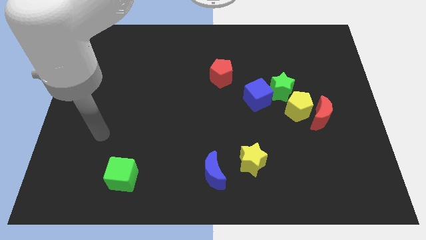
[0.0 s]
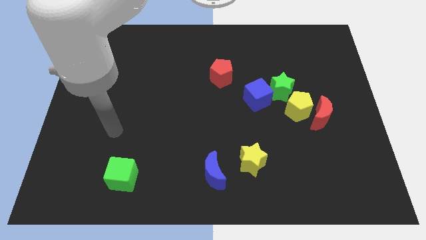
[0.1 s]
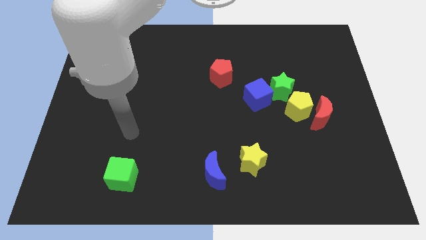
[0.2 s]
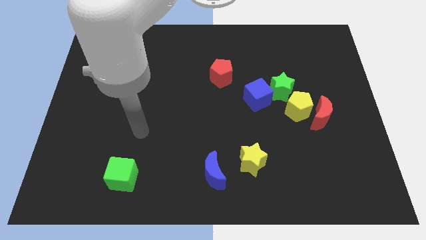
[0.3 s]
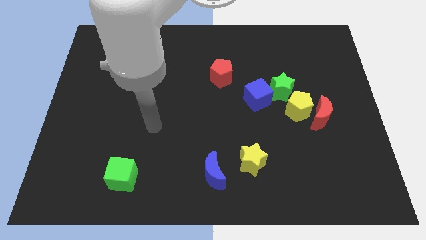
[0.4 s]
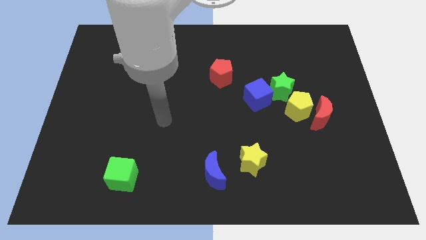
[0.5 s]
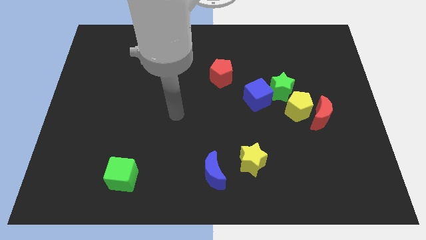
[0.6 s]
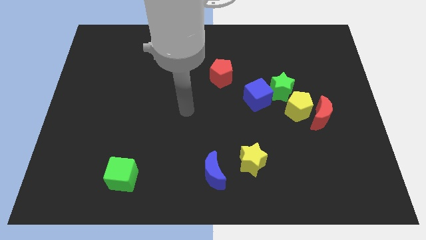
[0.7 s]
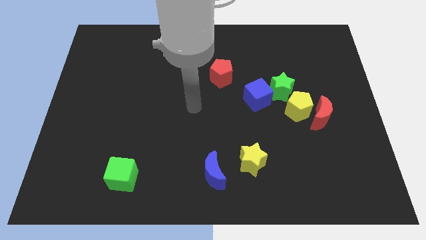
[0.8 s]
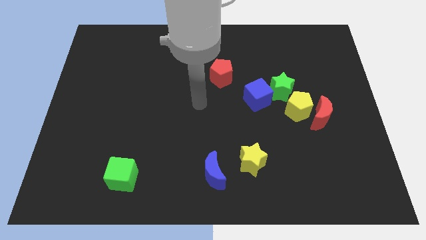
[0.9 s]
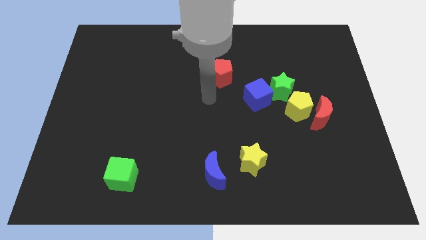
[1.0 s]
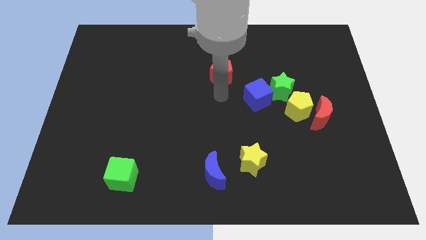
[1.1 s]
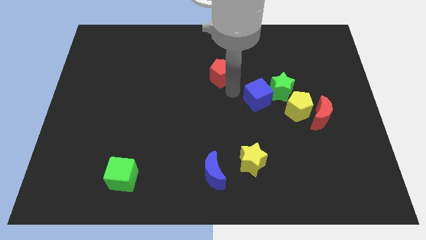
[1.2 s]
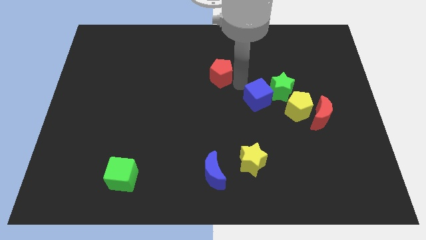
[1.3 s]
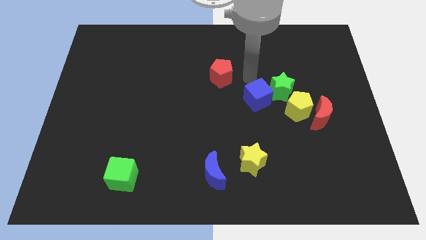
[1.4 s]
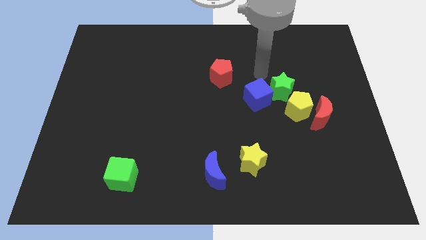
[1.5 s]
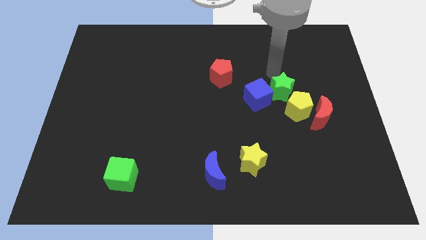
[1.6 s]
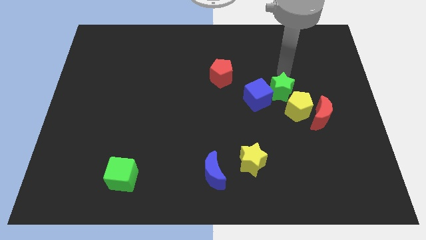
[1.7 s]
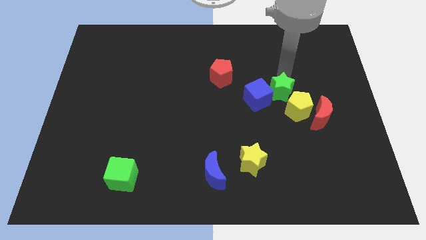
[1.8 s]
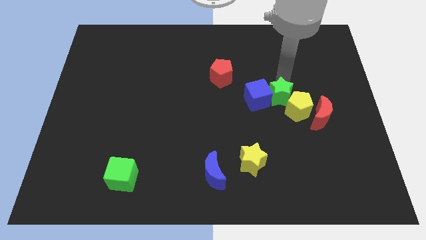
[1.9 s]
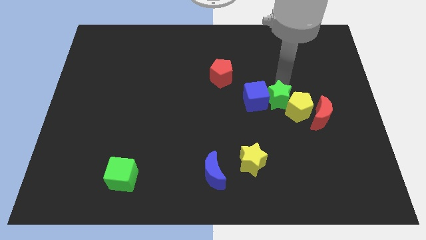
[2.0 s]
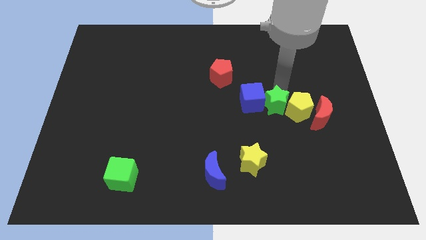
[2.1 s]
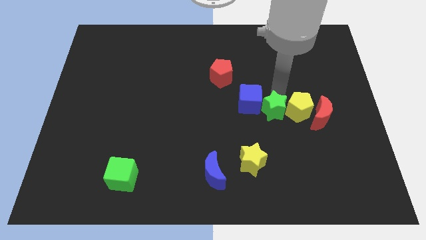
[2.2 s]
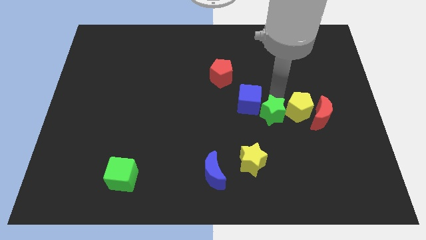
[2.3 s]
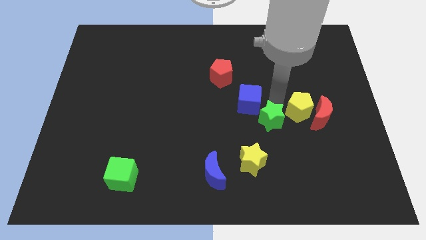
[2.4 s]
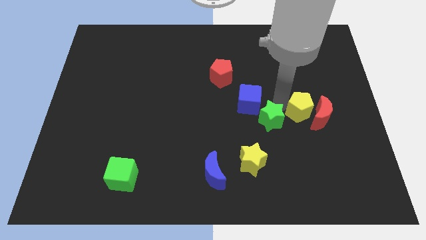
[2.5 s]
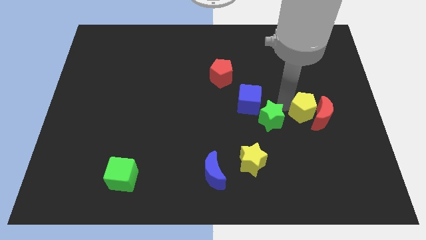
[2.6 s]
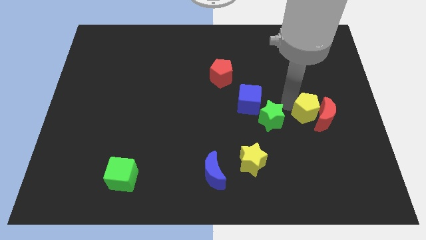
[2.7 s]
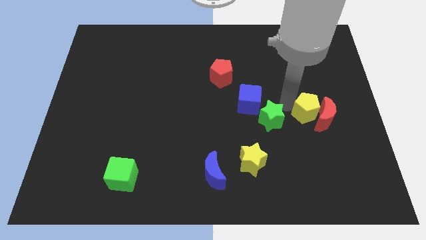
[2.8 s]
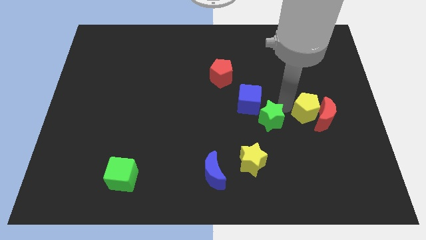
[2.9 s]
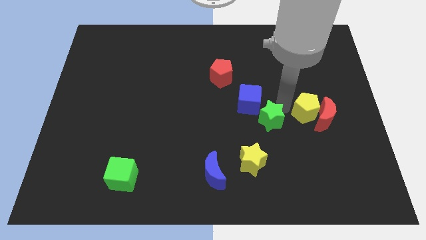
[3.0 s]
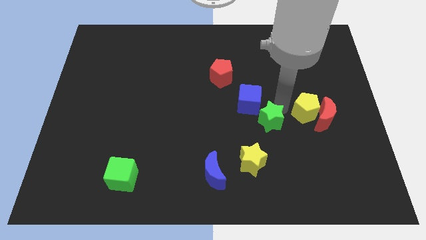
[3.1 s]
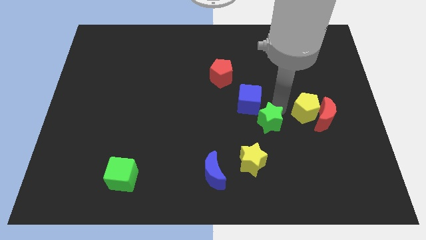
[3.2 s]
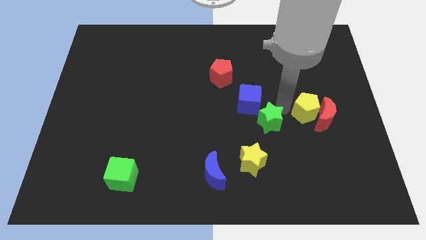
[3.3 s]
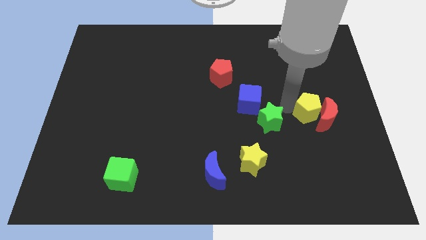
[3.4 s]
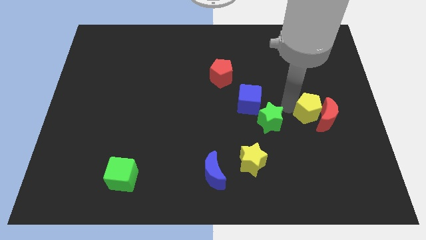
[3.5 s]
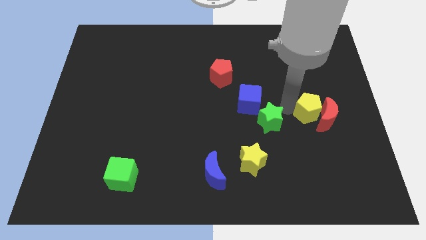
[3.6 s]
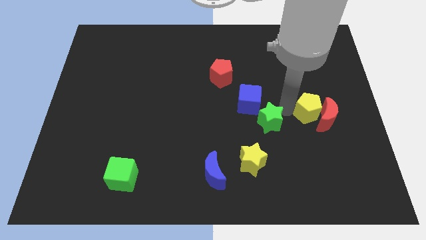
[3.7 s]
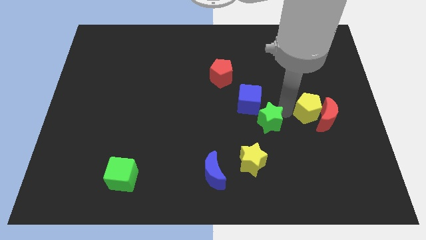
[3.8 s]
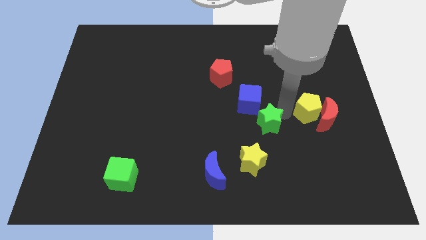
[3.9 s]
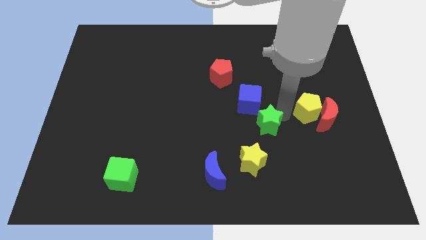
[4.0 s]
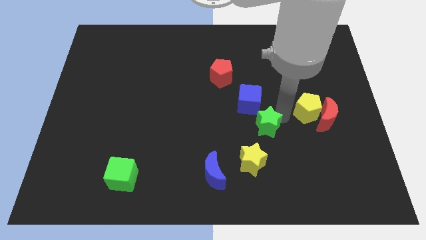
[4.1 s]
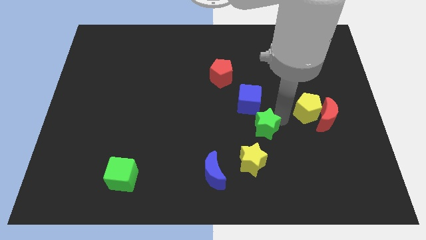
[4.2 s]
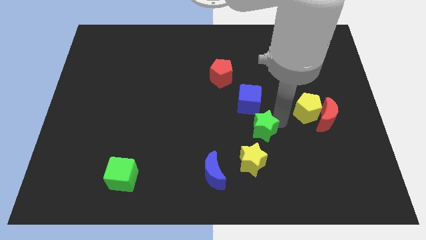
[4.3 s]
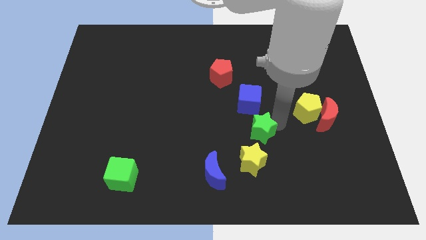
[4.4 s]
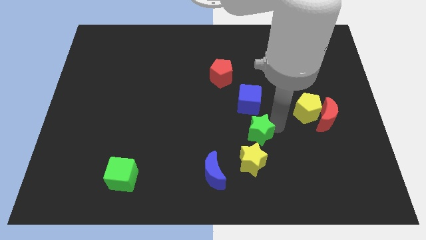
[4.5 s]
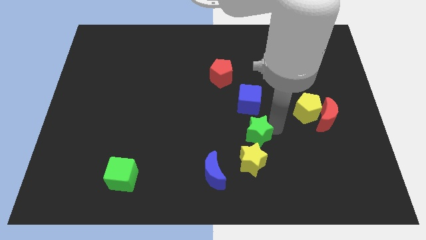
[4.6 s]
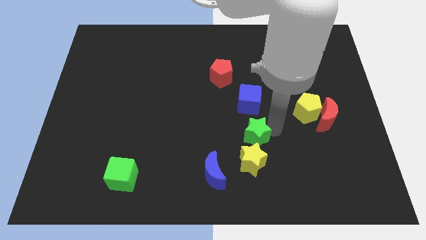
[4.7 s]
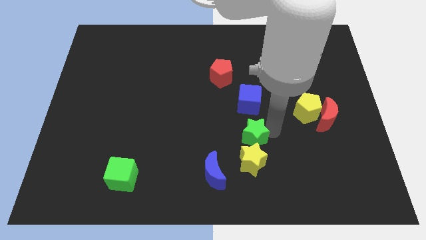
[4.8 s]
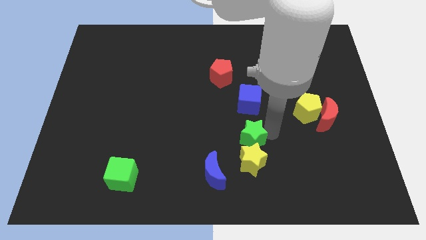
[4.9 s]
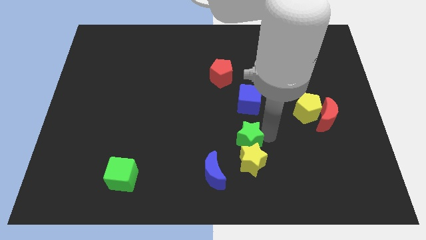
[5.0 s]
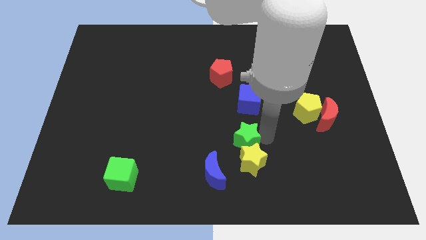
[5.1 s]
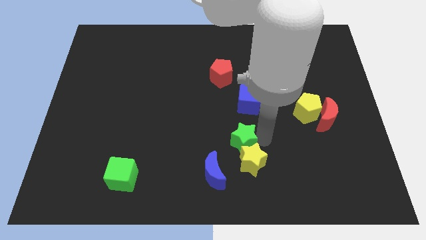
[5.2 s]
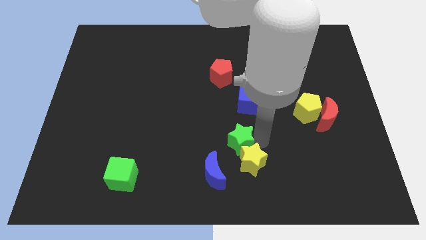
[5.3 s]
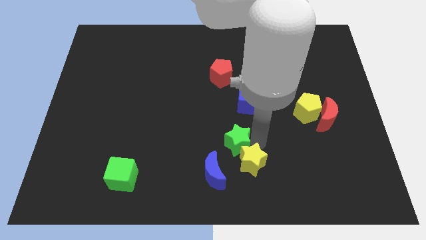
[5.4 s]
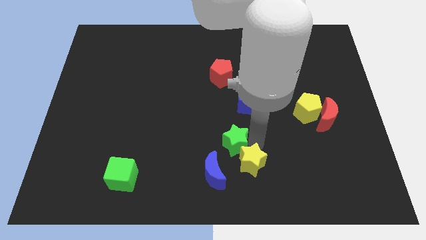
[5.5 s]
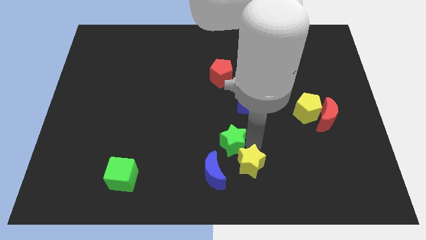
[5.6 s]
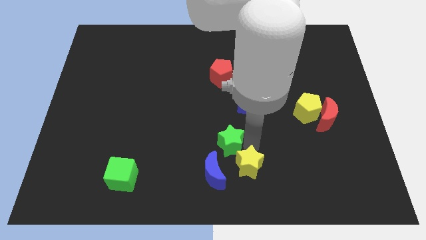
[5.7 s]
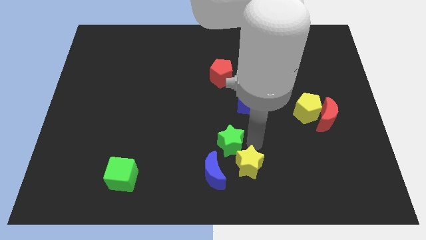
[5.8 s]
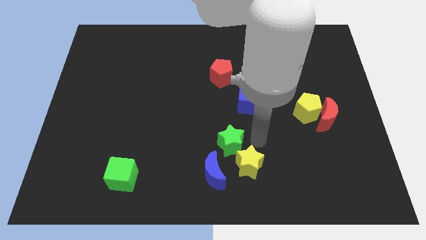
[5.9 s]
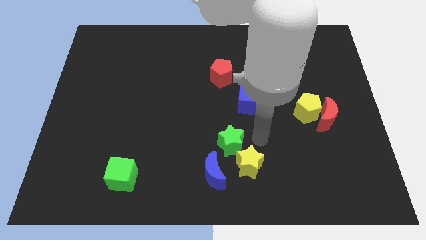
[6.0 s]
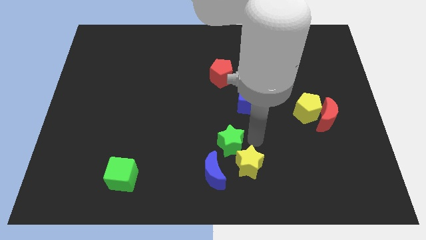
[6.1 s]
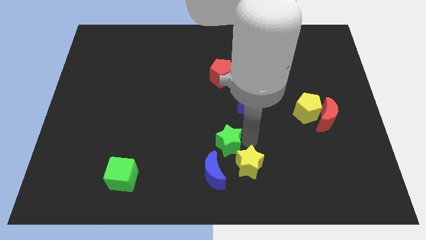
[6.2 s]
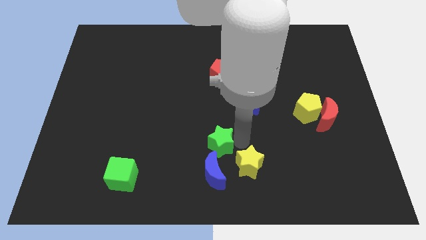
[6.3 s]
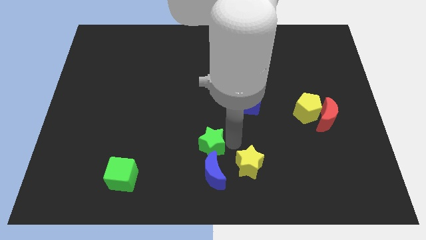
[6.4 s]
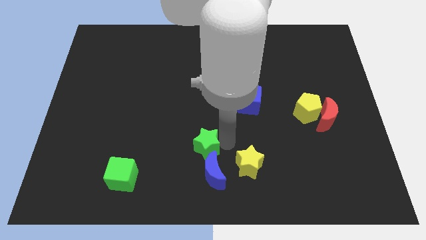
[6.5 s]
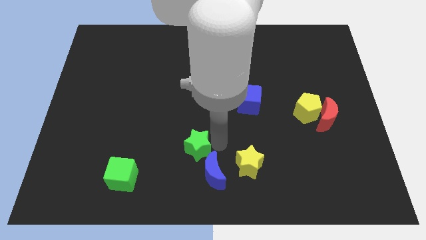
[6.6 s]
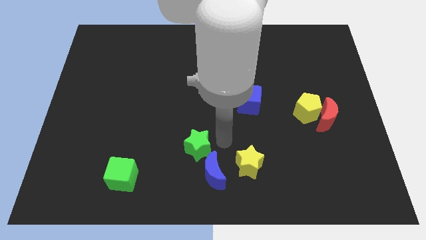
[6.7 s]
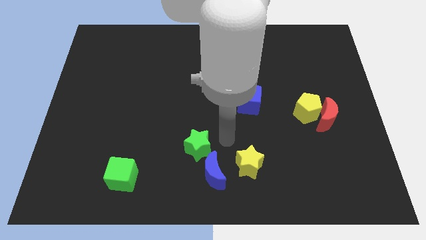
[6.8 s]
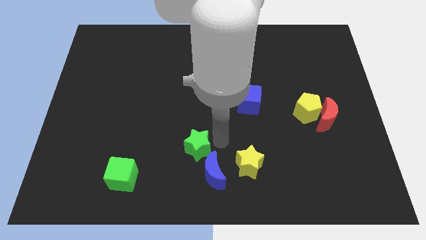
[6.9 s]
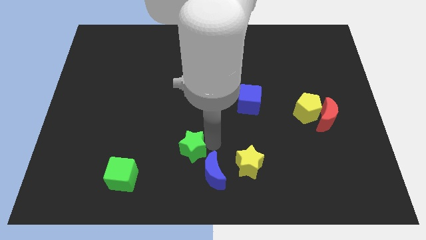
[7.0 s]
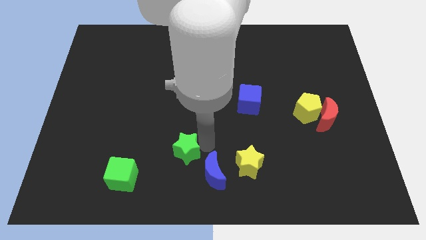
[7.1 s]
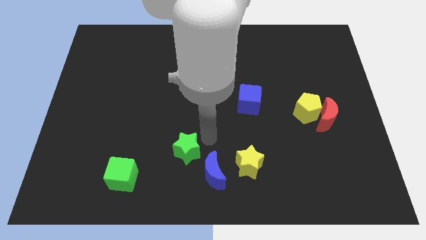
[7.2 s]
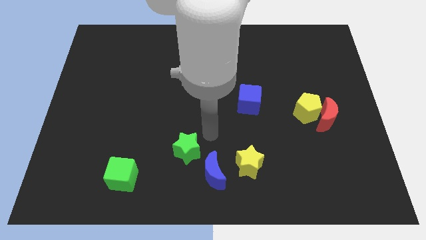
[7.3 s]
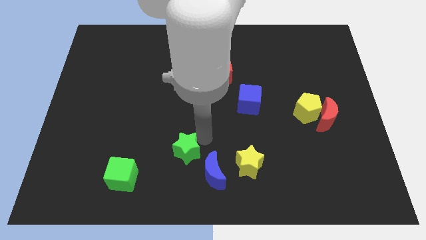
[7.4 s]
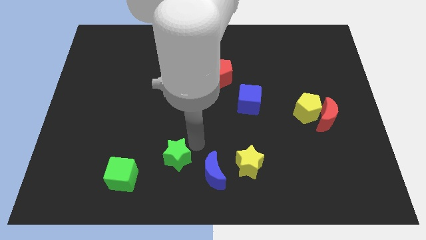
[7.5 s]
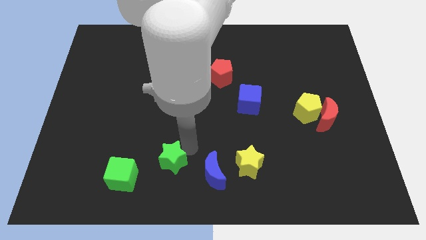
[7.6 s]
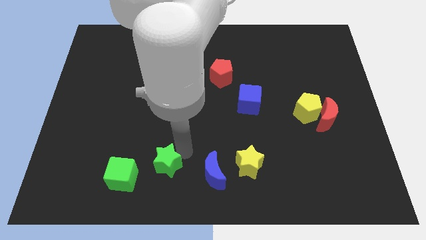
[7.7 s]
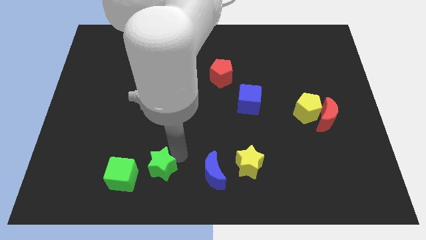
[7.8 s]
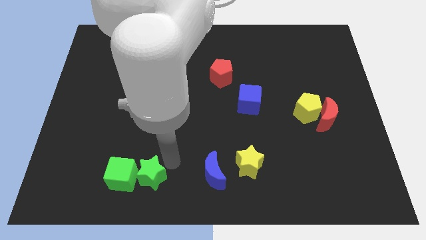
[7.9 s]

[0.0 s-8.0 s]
push the green star towards the green cube
